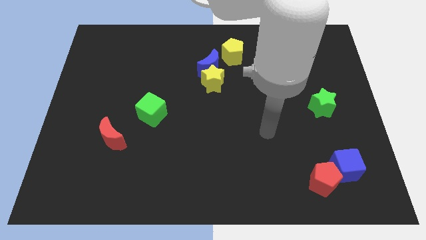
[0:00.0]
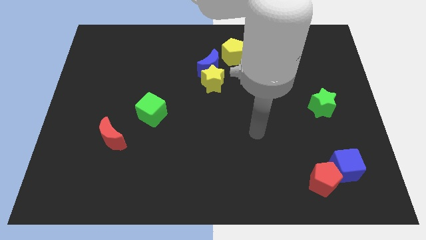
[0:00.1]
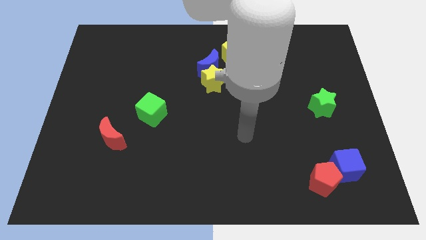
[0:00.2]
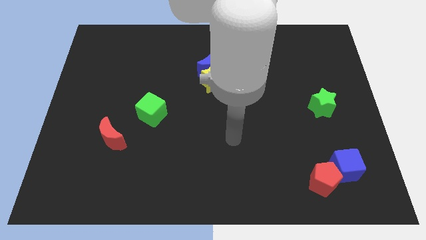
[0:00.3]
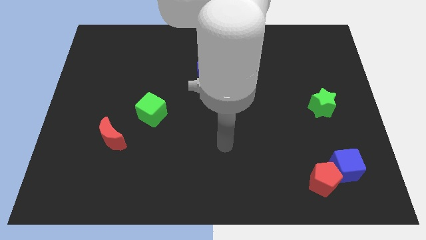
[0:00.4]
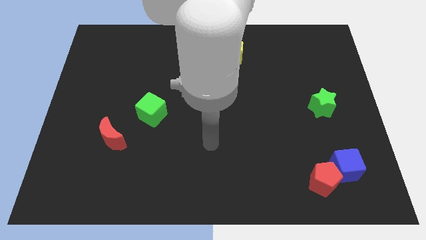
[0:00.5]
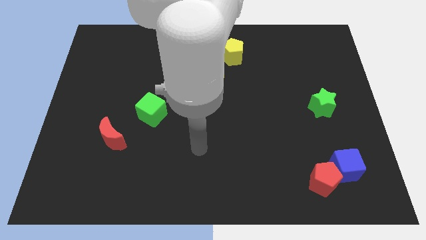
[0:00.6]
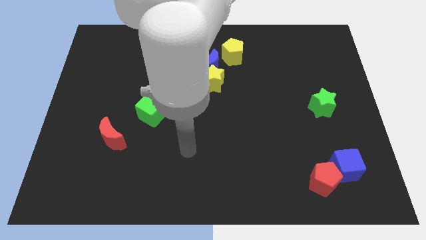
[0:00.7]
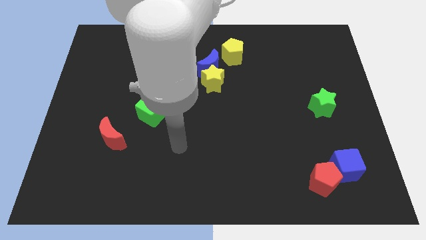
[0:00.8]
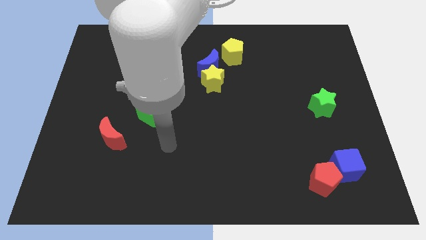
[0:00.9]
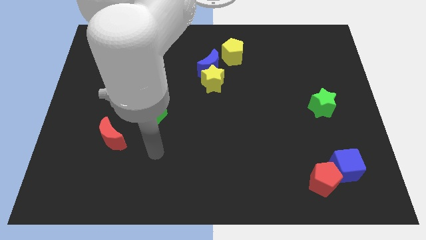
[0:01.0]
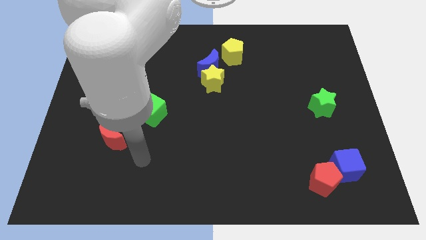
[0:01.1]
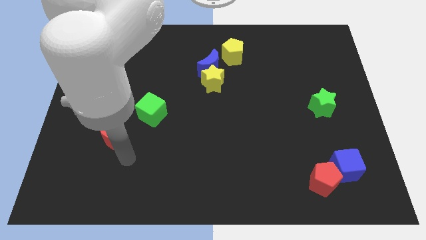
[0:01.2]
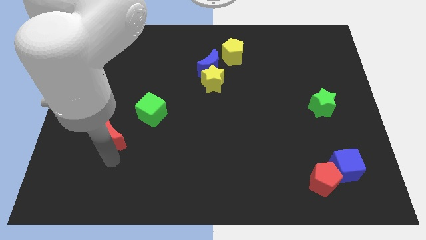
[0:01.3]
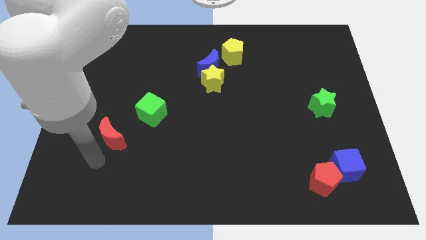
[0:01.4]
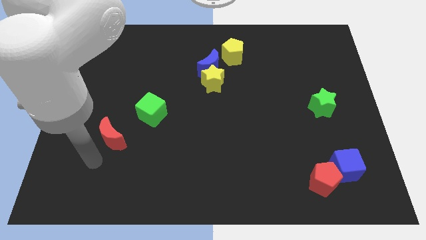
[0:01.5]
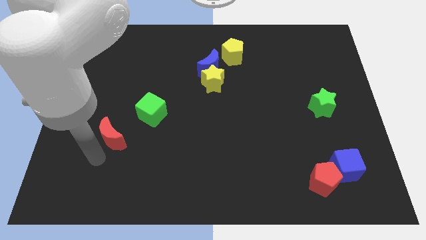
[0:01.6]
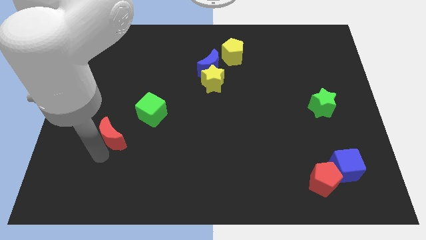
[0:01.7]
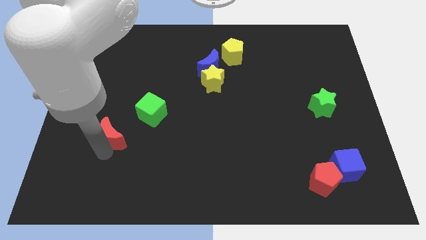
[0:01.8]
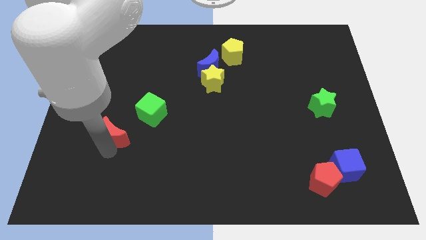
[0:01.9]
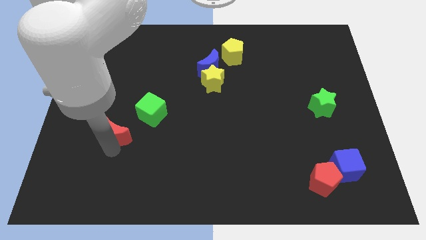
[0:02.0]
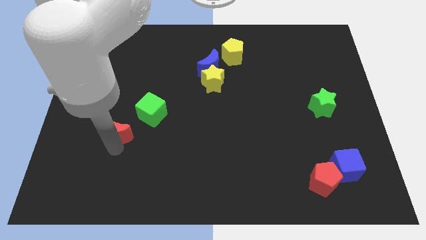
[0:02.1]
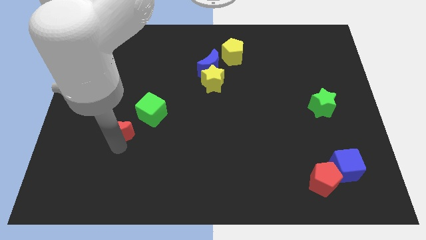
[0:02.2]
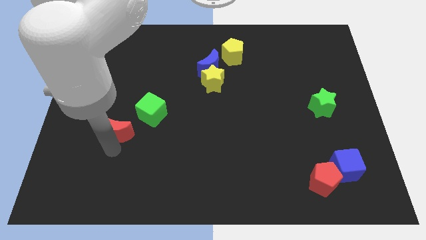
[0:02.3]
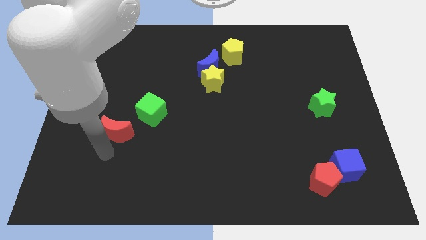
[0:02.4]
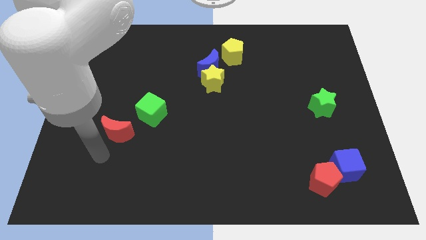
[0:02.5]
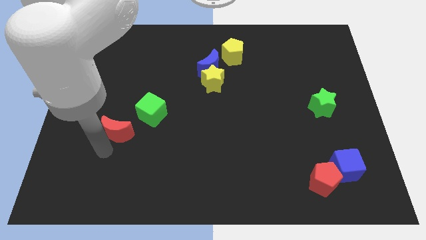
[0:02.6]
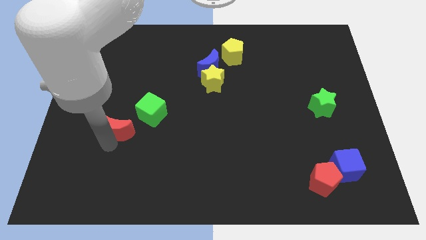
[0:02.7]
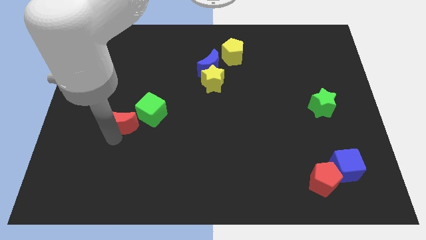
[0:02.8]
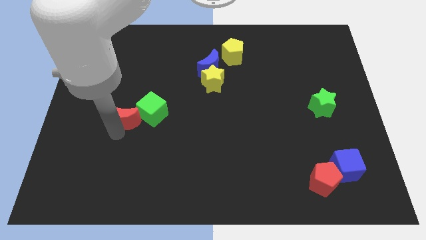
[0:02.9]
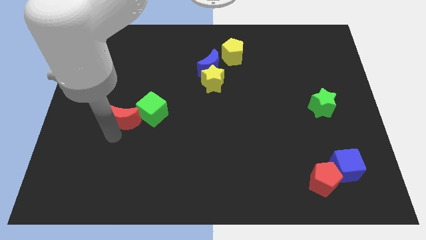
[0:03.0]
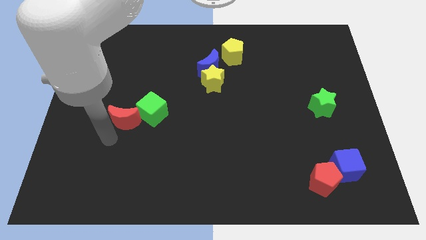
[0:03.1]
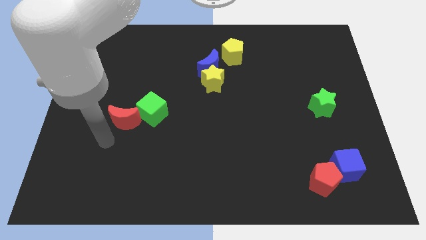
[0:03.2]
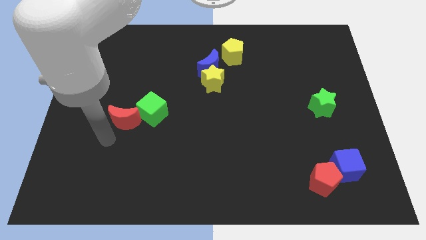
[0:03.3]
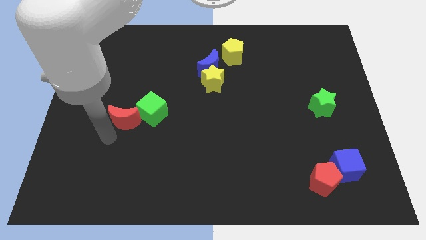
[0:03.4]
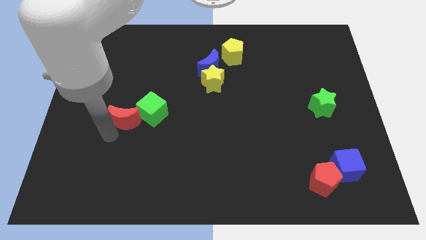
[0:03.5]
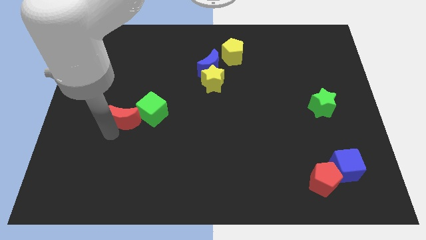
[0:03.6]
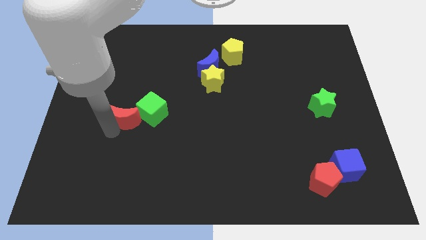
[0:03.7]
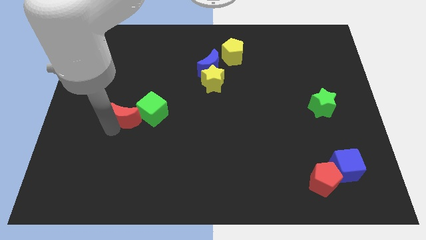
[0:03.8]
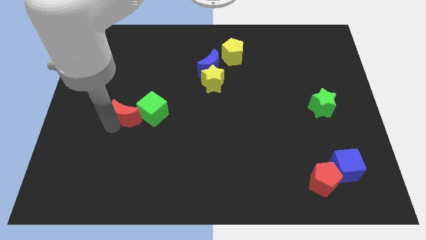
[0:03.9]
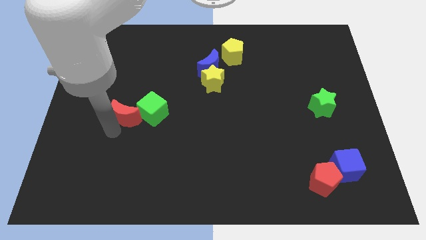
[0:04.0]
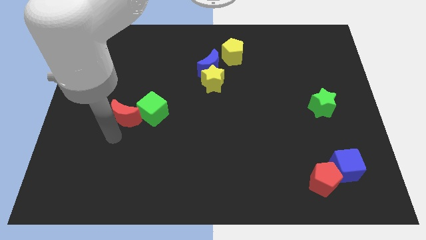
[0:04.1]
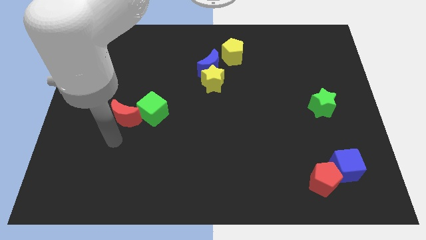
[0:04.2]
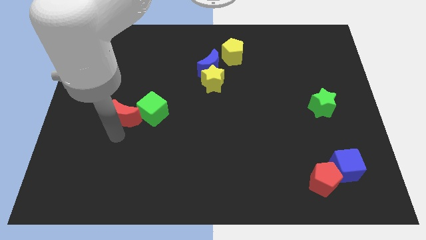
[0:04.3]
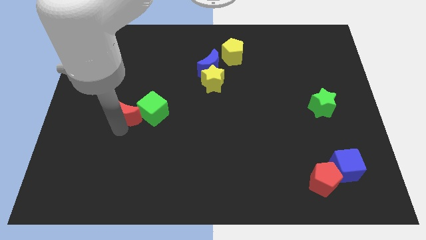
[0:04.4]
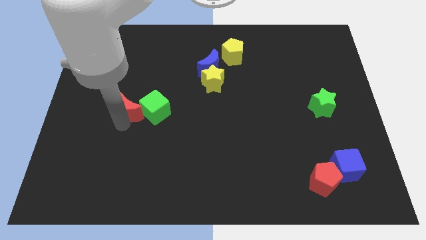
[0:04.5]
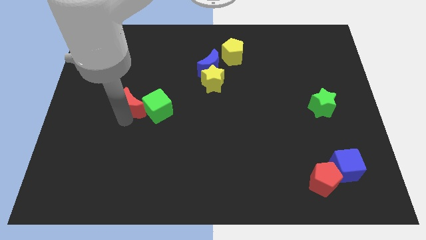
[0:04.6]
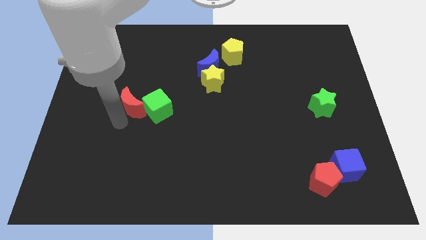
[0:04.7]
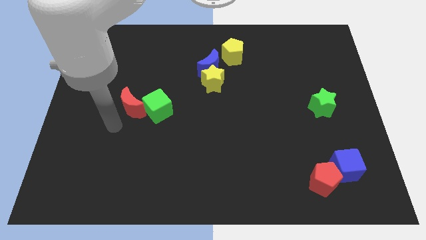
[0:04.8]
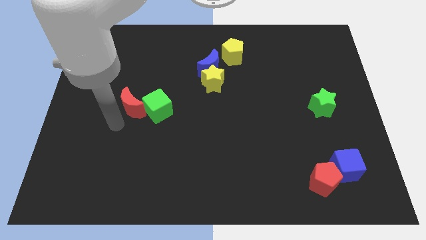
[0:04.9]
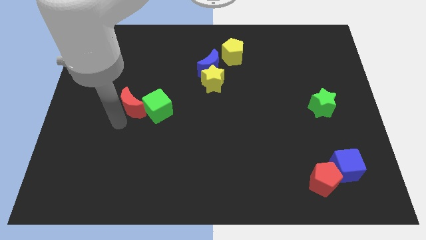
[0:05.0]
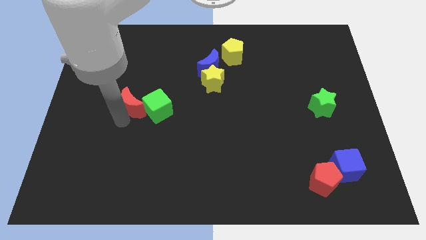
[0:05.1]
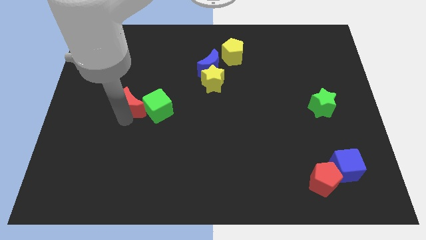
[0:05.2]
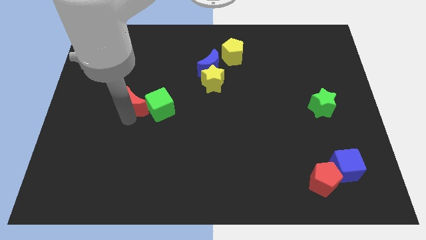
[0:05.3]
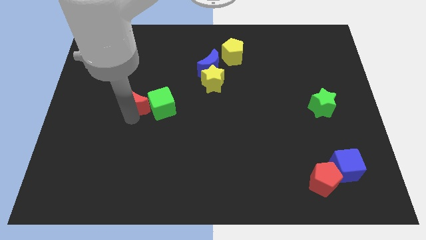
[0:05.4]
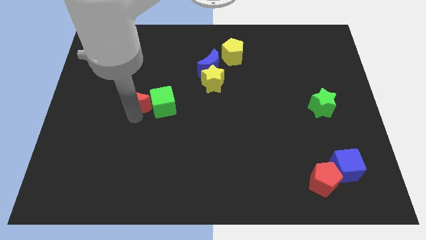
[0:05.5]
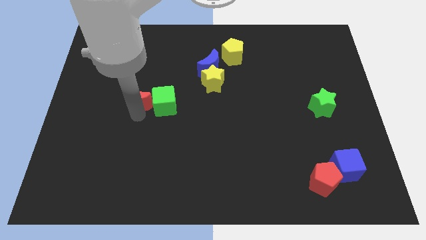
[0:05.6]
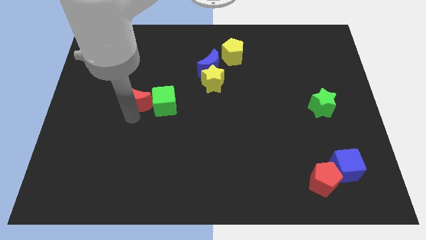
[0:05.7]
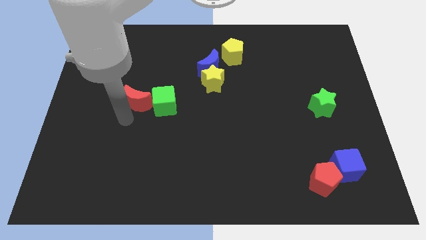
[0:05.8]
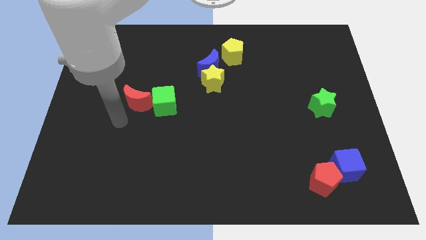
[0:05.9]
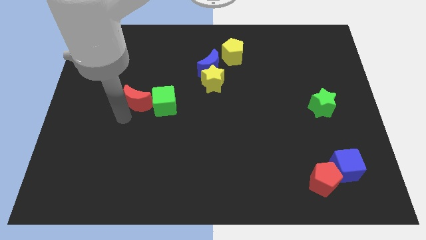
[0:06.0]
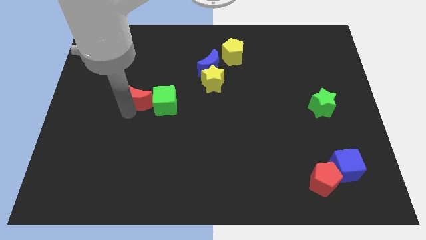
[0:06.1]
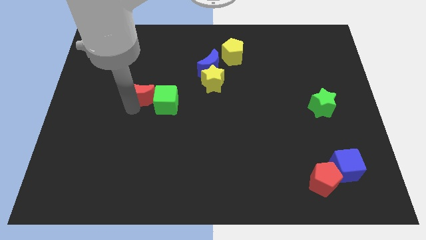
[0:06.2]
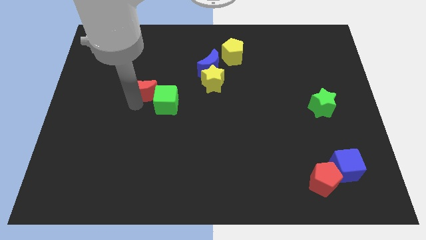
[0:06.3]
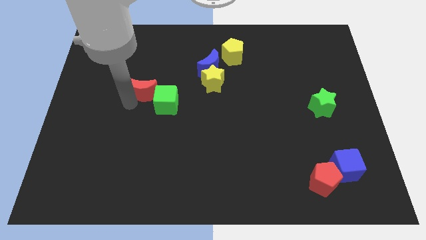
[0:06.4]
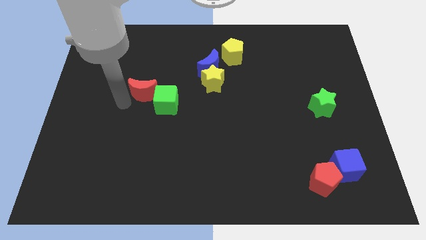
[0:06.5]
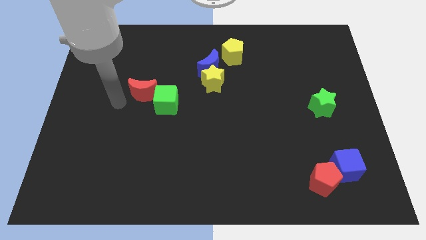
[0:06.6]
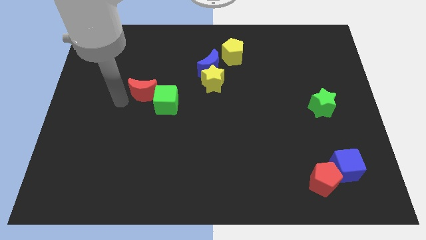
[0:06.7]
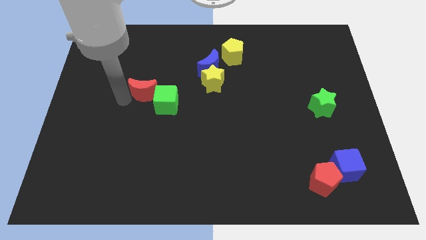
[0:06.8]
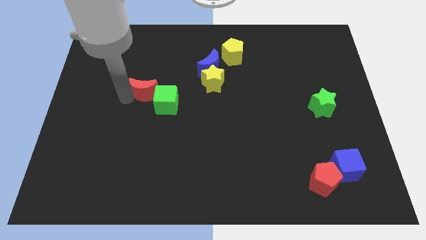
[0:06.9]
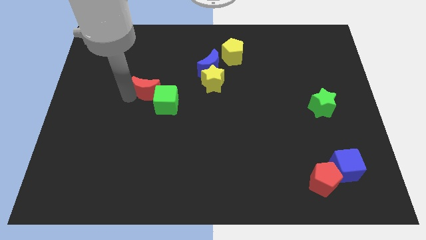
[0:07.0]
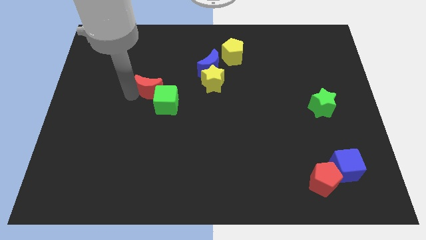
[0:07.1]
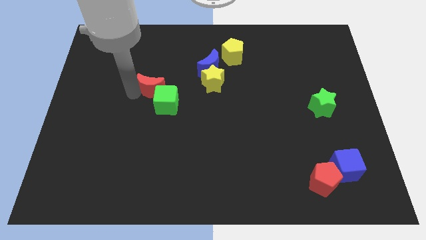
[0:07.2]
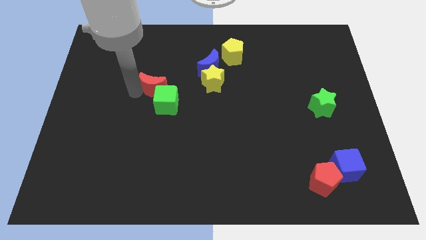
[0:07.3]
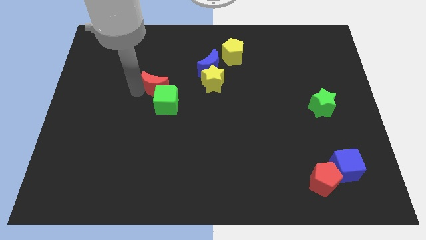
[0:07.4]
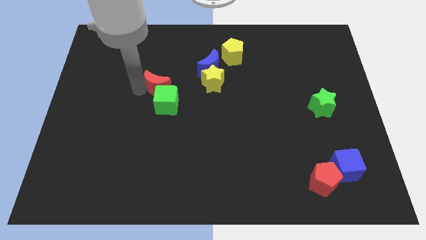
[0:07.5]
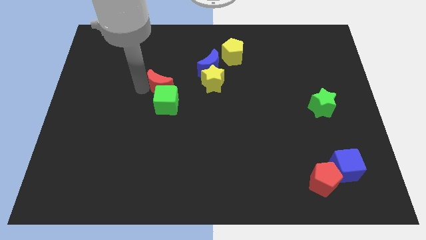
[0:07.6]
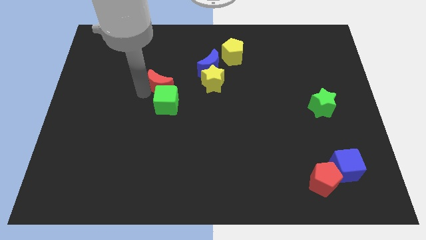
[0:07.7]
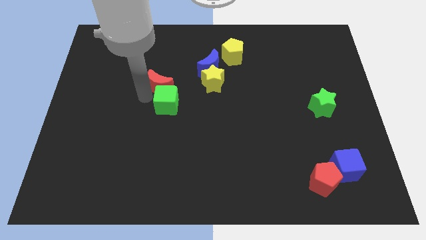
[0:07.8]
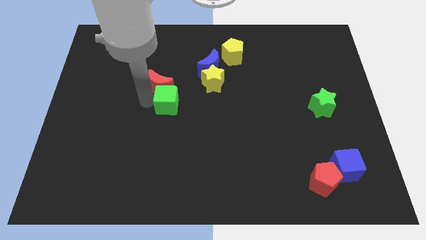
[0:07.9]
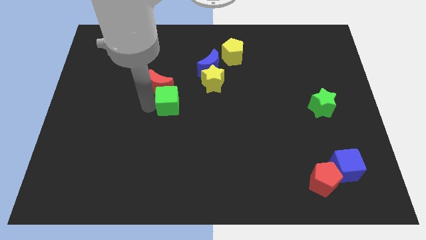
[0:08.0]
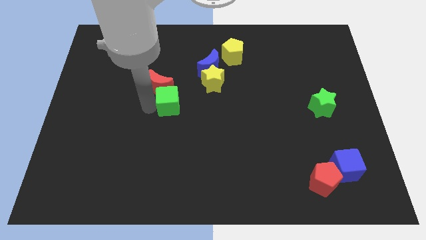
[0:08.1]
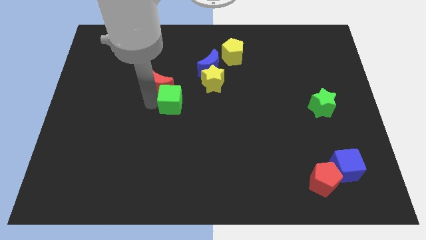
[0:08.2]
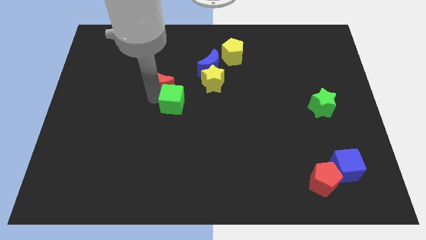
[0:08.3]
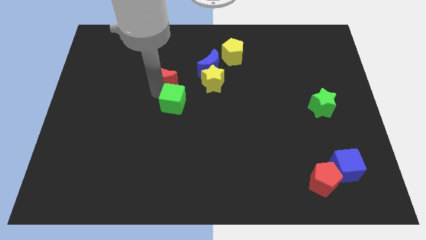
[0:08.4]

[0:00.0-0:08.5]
move the red moon to the left side of the blue moon
